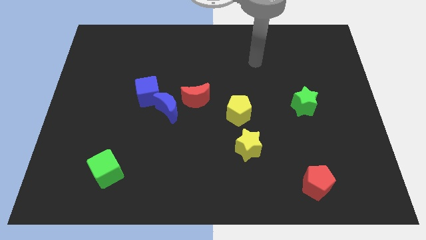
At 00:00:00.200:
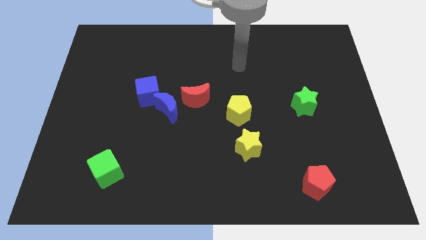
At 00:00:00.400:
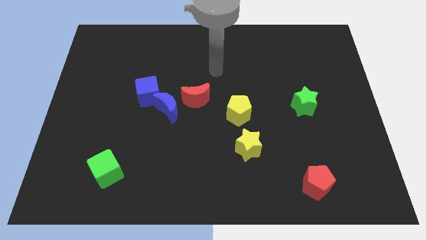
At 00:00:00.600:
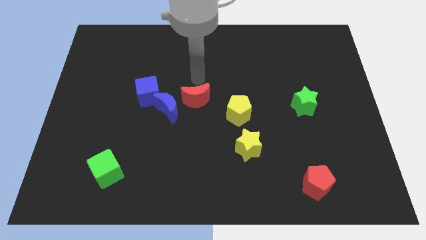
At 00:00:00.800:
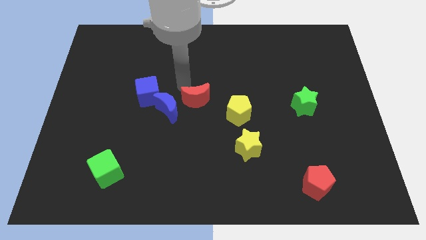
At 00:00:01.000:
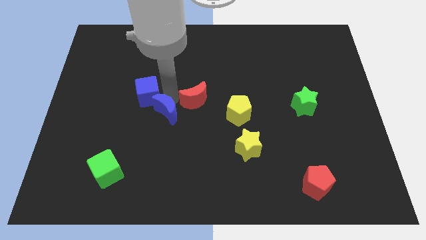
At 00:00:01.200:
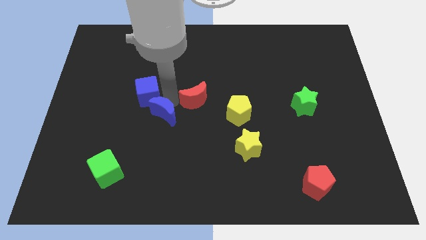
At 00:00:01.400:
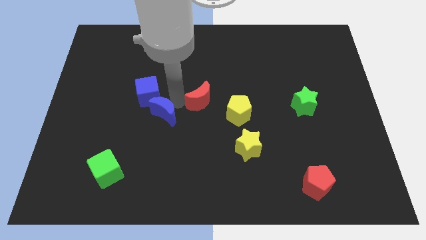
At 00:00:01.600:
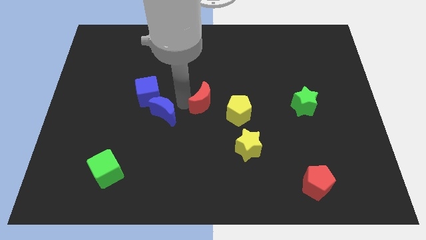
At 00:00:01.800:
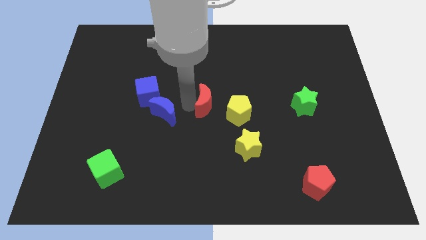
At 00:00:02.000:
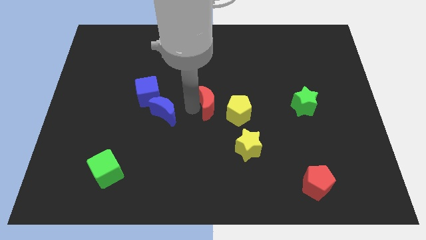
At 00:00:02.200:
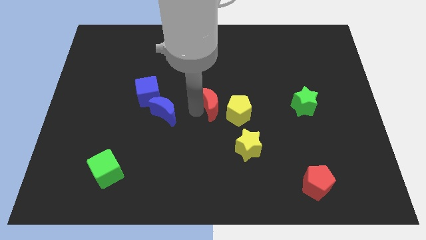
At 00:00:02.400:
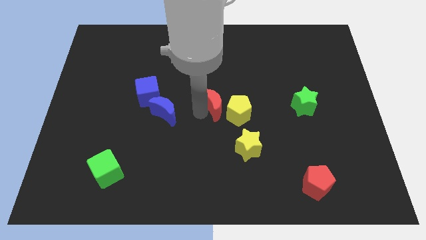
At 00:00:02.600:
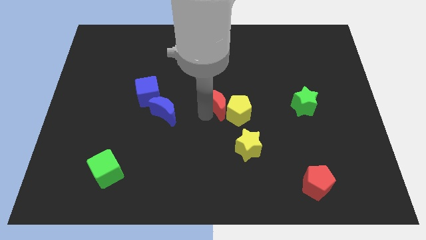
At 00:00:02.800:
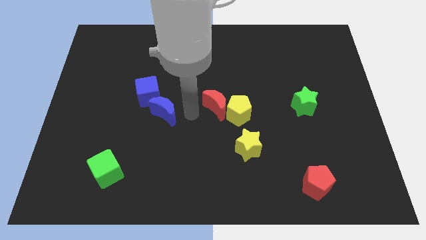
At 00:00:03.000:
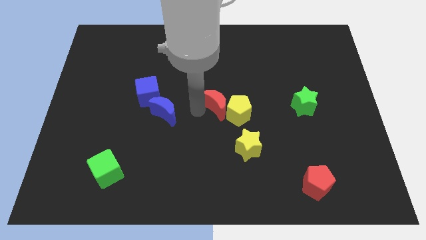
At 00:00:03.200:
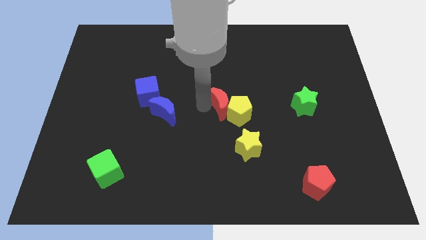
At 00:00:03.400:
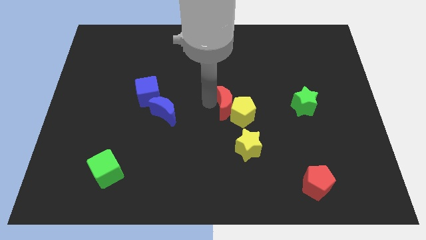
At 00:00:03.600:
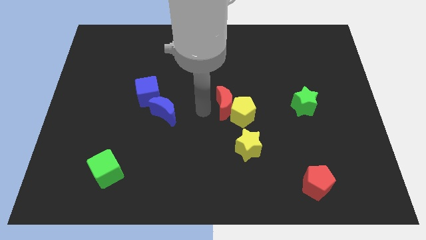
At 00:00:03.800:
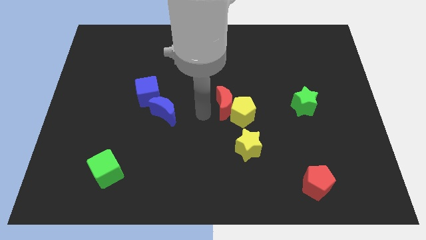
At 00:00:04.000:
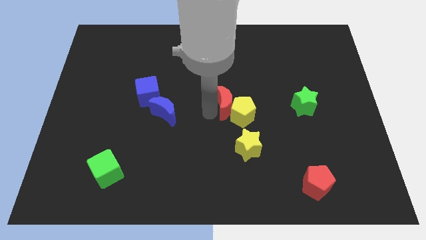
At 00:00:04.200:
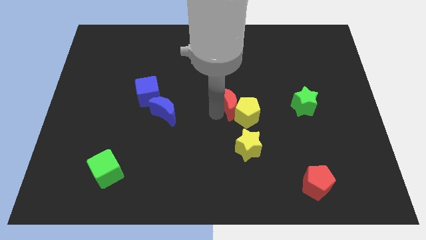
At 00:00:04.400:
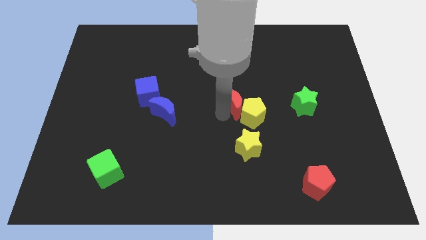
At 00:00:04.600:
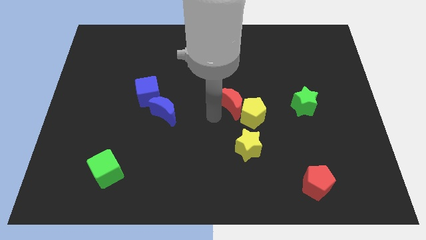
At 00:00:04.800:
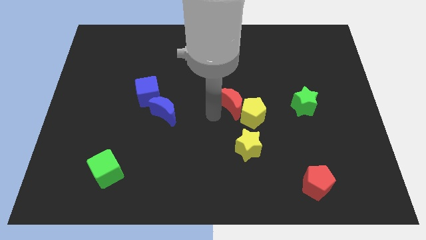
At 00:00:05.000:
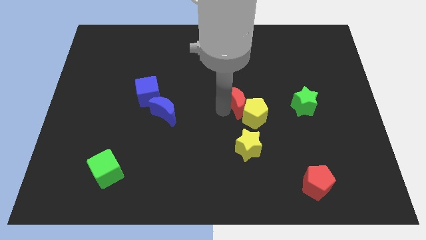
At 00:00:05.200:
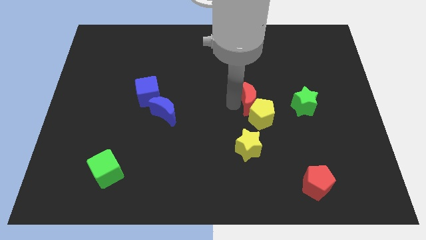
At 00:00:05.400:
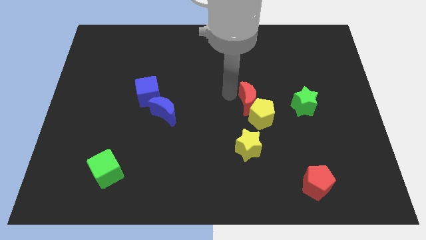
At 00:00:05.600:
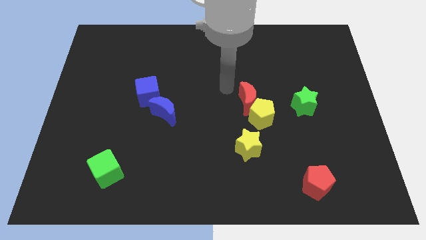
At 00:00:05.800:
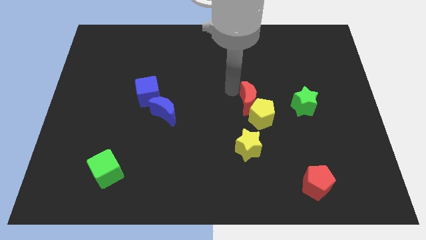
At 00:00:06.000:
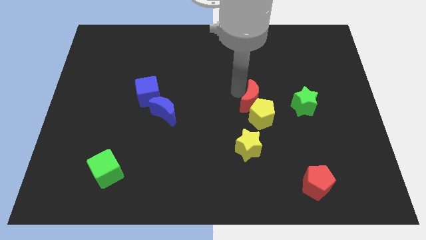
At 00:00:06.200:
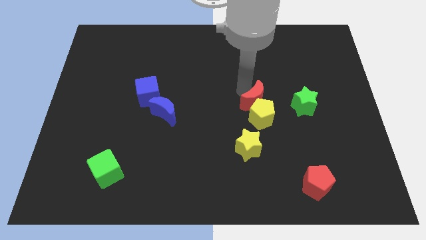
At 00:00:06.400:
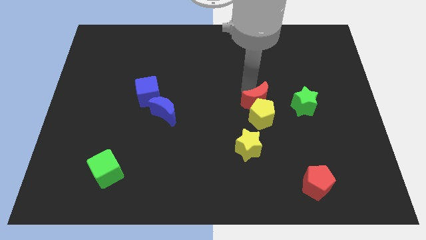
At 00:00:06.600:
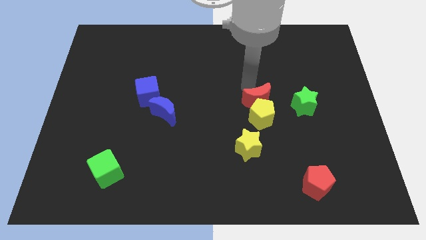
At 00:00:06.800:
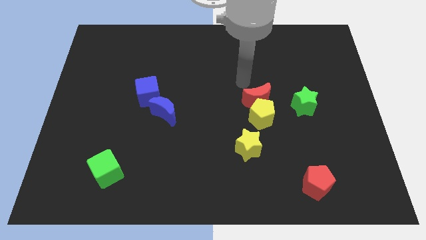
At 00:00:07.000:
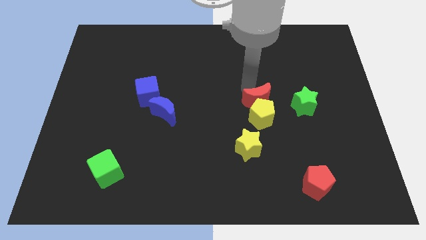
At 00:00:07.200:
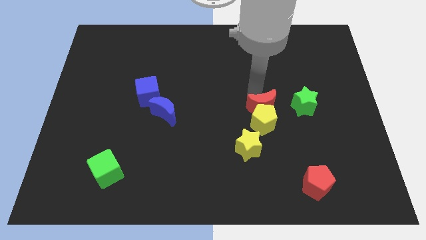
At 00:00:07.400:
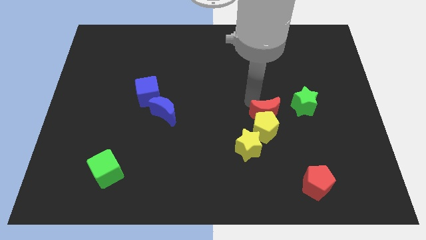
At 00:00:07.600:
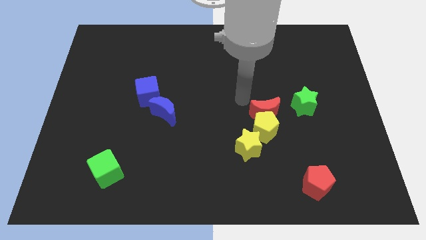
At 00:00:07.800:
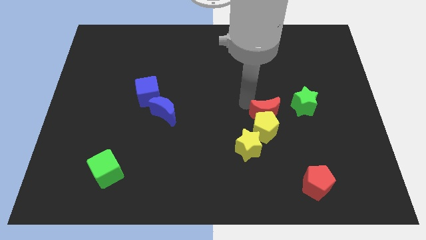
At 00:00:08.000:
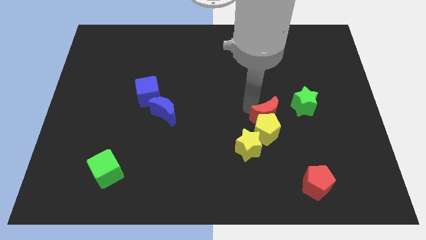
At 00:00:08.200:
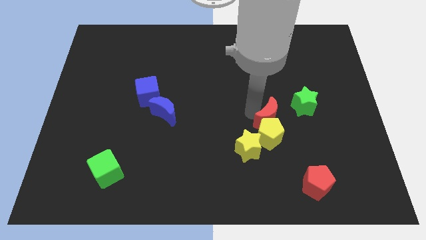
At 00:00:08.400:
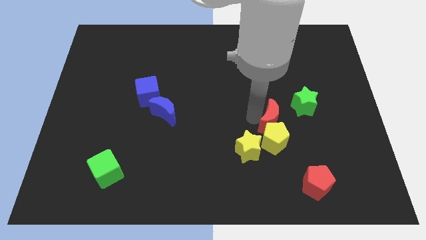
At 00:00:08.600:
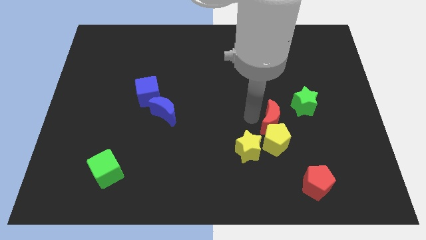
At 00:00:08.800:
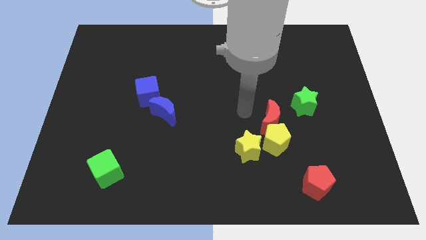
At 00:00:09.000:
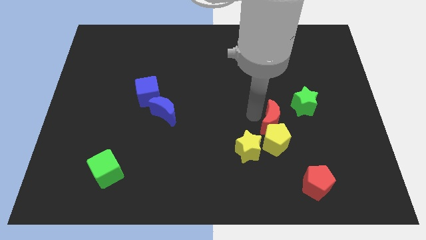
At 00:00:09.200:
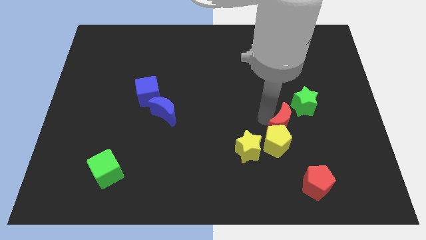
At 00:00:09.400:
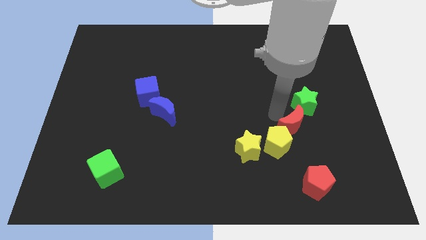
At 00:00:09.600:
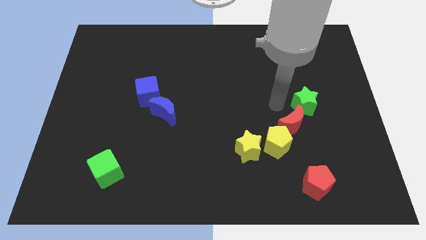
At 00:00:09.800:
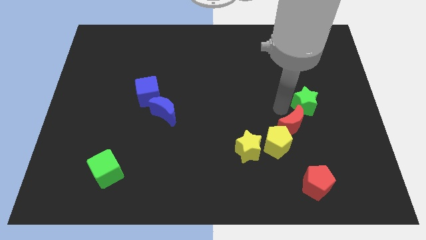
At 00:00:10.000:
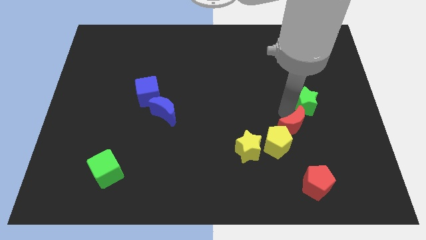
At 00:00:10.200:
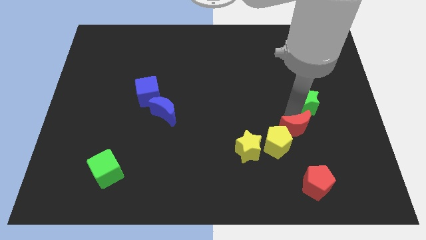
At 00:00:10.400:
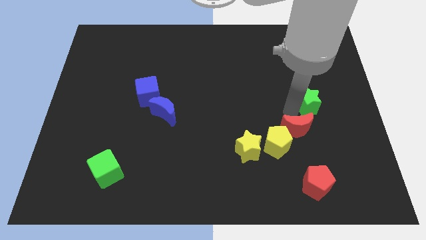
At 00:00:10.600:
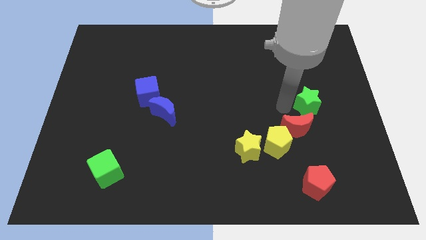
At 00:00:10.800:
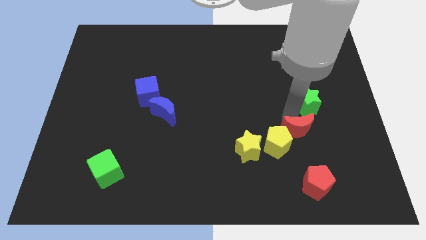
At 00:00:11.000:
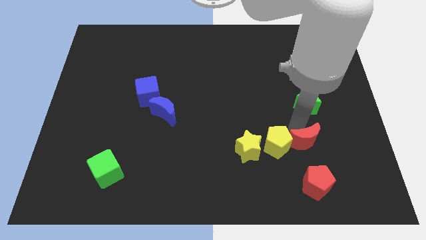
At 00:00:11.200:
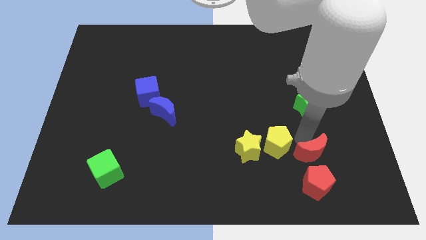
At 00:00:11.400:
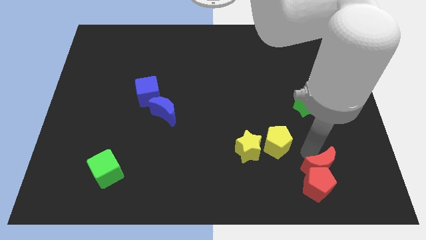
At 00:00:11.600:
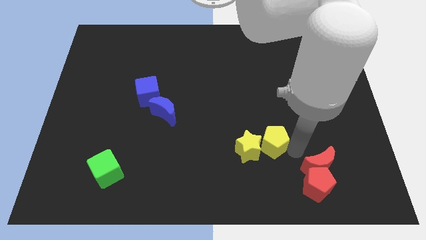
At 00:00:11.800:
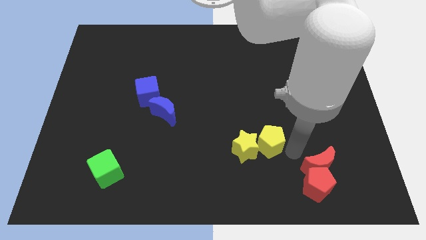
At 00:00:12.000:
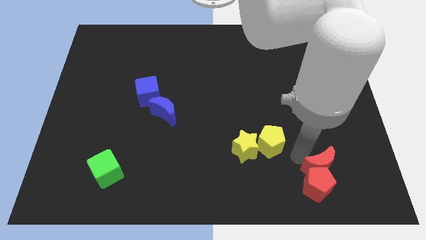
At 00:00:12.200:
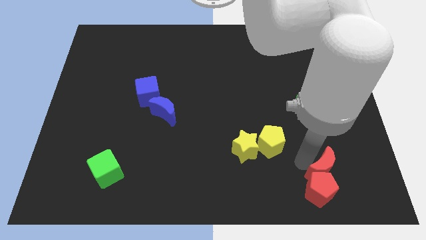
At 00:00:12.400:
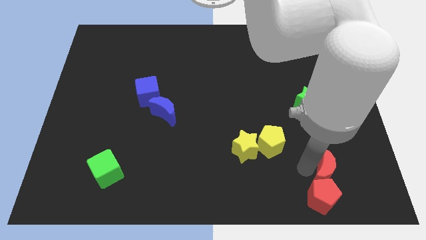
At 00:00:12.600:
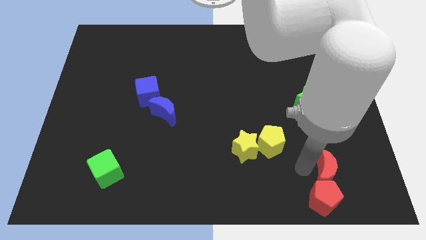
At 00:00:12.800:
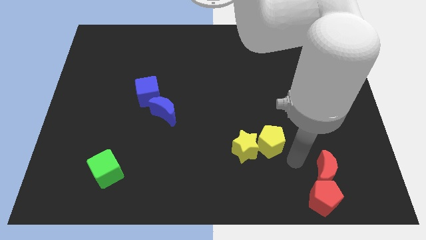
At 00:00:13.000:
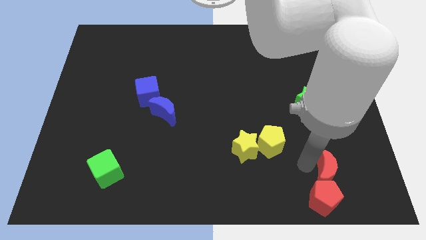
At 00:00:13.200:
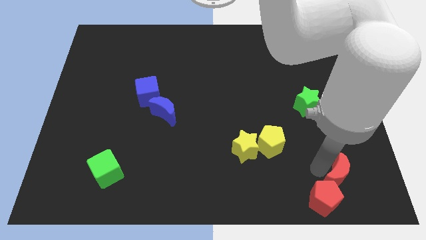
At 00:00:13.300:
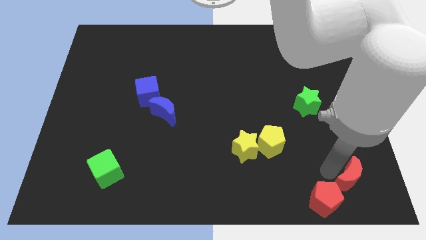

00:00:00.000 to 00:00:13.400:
put the red moon to the lower right corner
